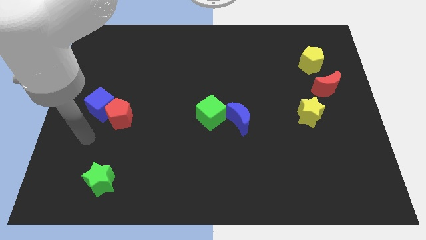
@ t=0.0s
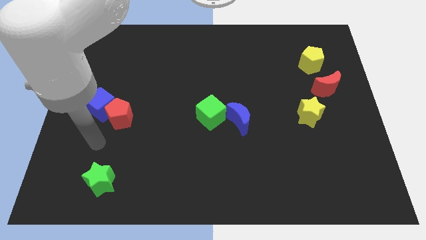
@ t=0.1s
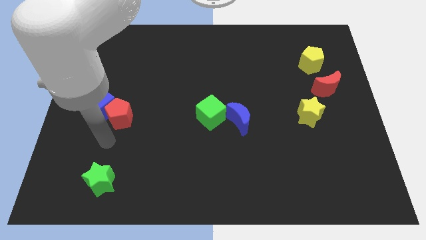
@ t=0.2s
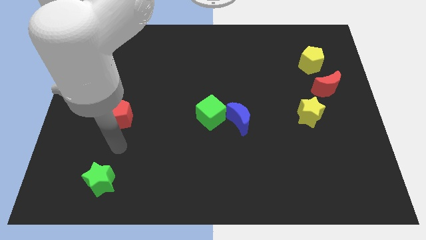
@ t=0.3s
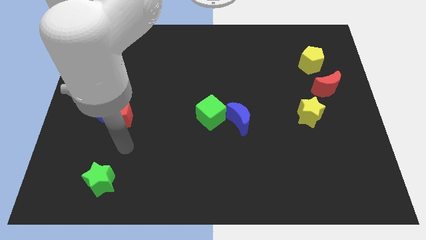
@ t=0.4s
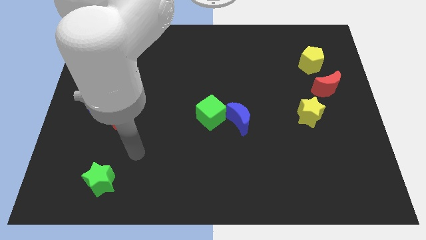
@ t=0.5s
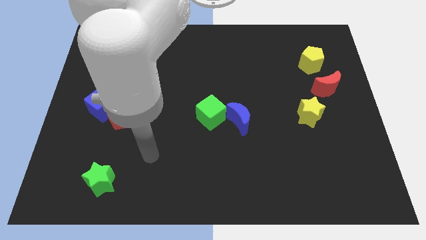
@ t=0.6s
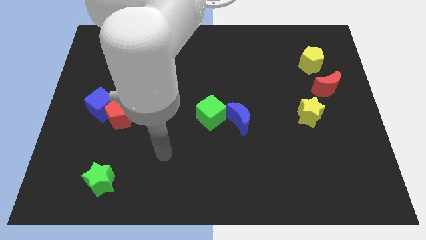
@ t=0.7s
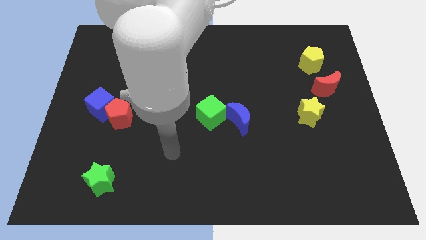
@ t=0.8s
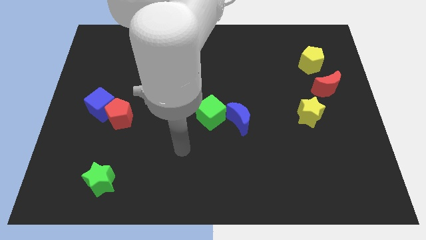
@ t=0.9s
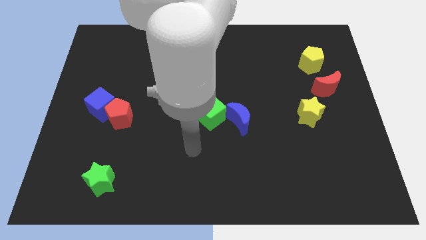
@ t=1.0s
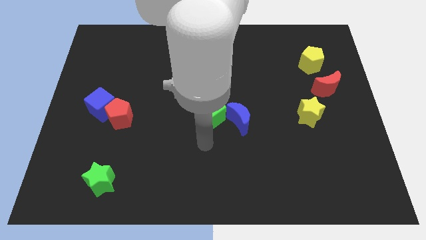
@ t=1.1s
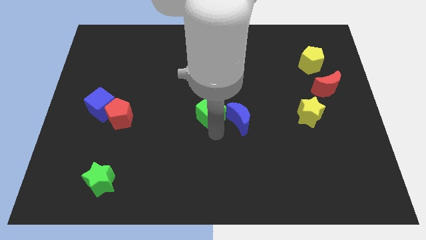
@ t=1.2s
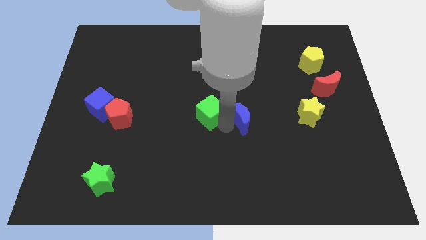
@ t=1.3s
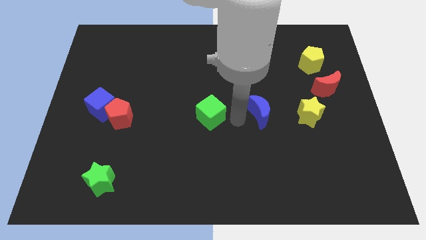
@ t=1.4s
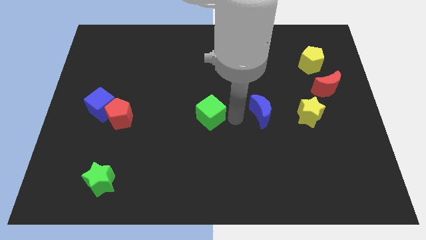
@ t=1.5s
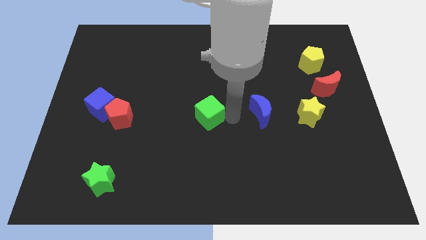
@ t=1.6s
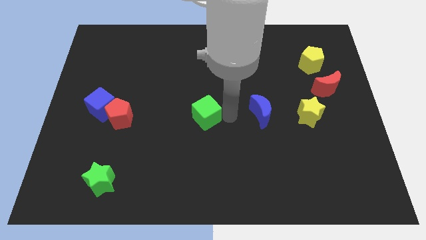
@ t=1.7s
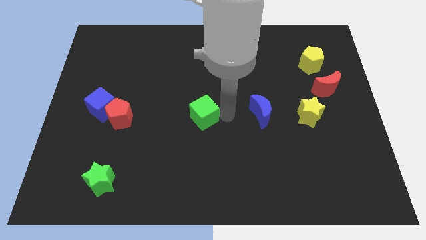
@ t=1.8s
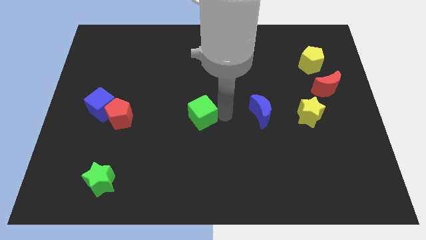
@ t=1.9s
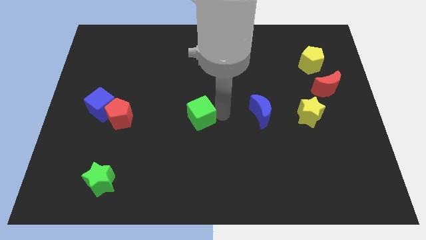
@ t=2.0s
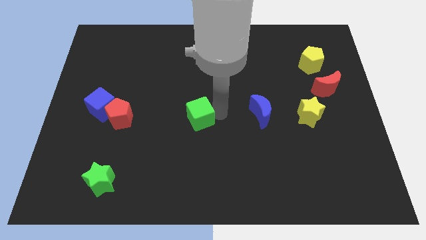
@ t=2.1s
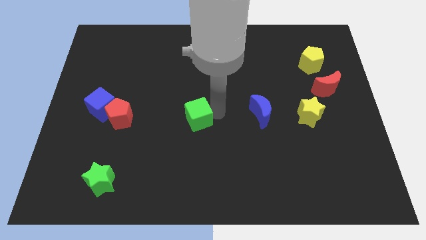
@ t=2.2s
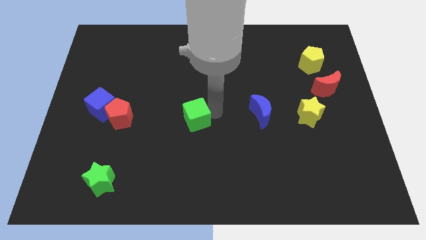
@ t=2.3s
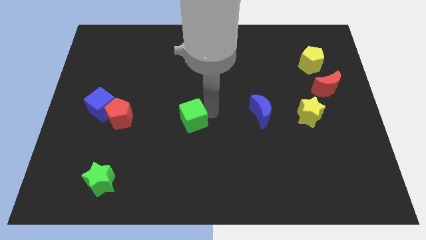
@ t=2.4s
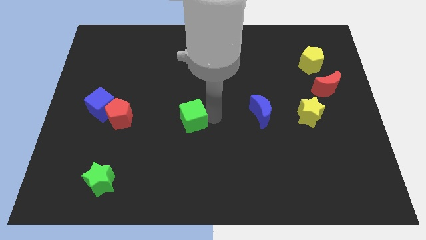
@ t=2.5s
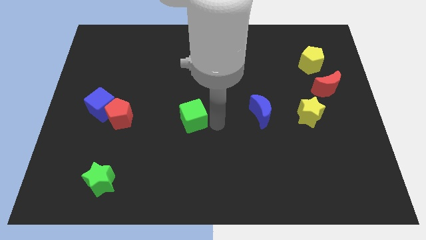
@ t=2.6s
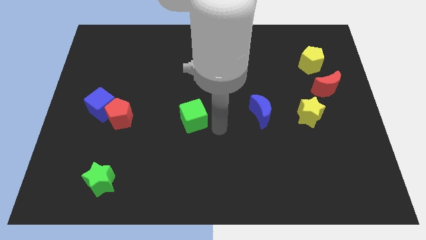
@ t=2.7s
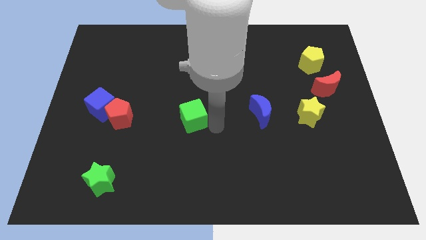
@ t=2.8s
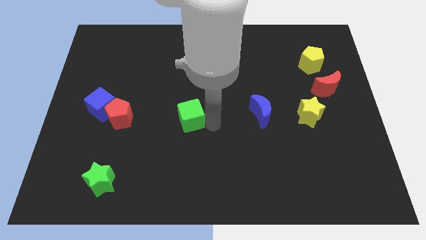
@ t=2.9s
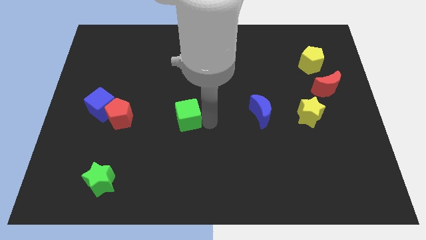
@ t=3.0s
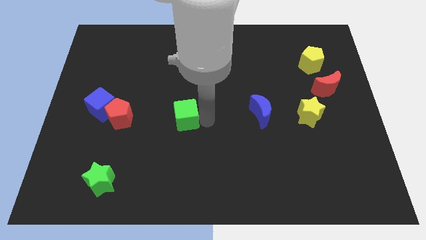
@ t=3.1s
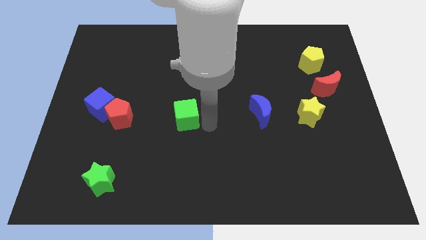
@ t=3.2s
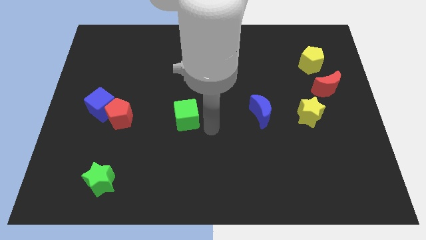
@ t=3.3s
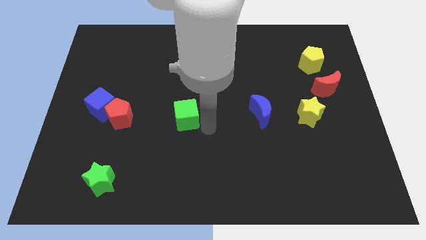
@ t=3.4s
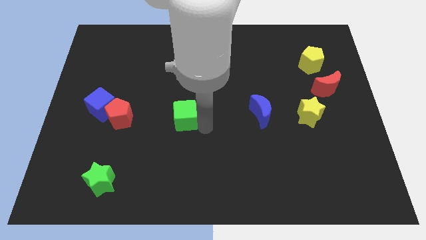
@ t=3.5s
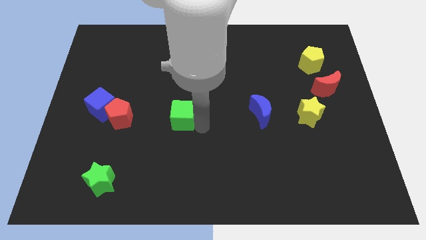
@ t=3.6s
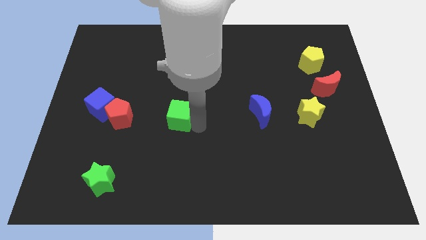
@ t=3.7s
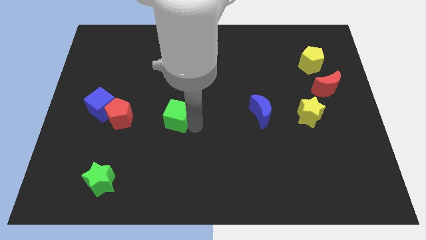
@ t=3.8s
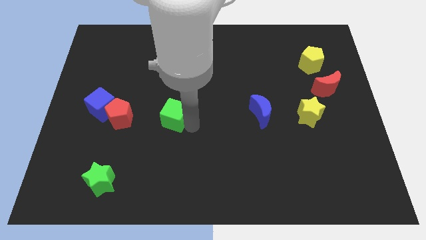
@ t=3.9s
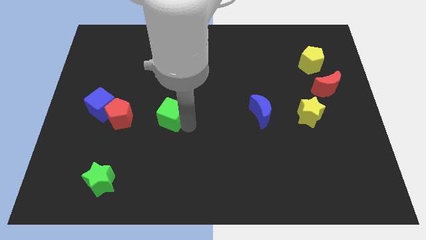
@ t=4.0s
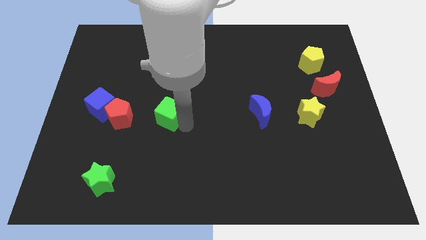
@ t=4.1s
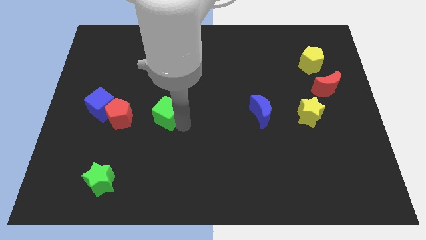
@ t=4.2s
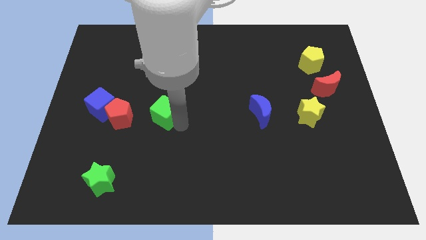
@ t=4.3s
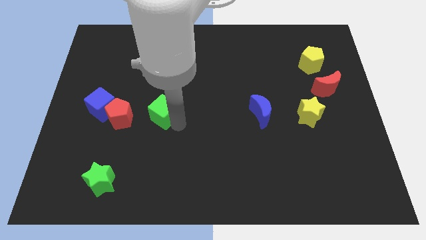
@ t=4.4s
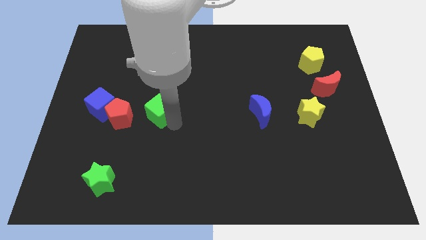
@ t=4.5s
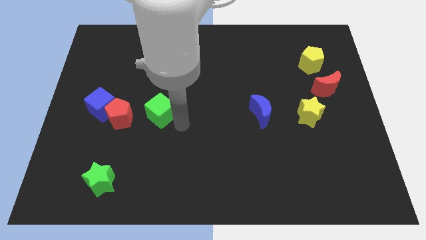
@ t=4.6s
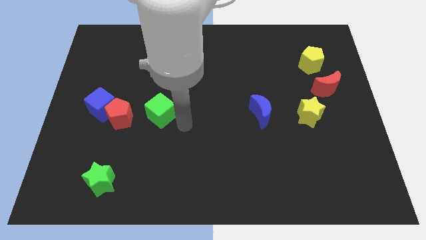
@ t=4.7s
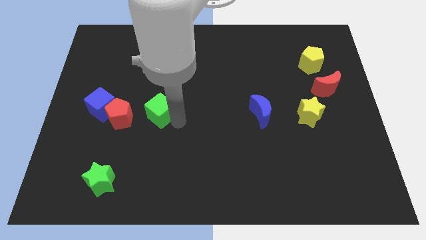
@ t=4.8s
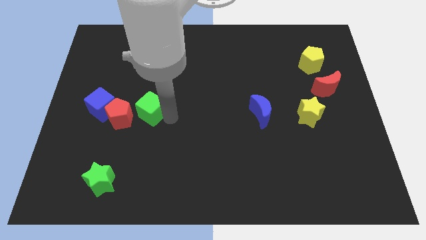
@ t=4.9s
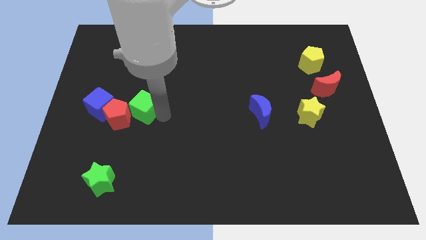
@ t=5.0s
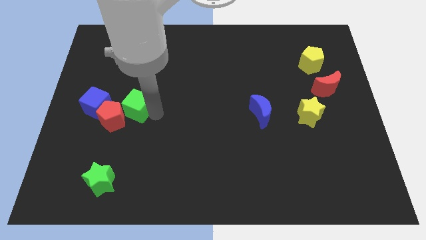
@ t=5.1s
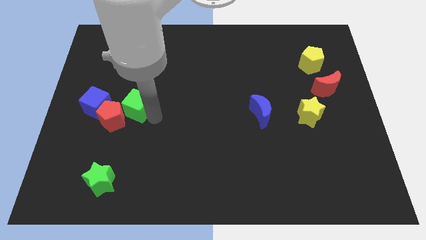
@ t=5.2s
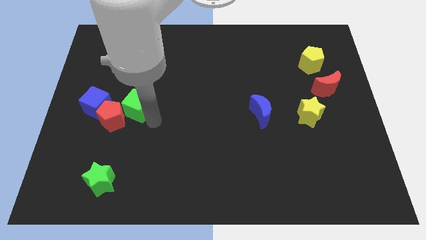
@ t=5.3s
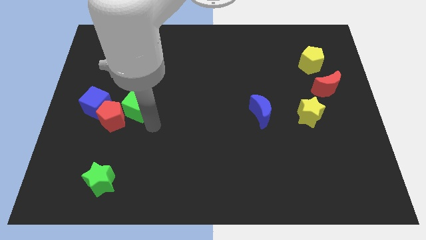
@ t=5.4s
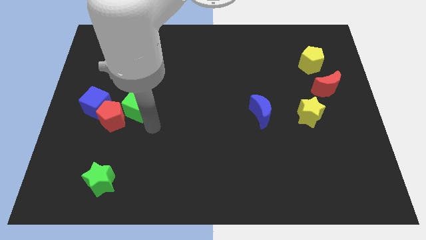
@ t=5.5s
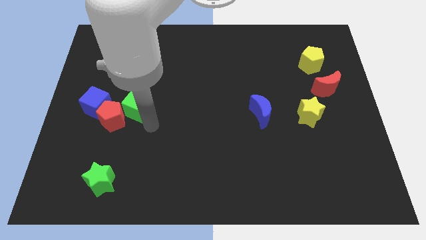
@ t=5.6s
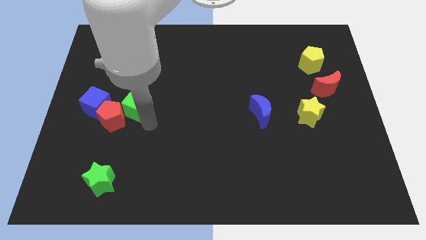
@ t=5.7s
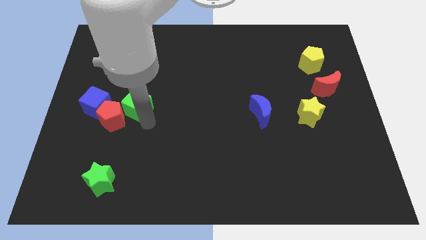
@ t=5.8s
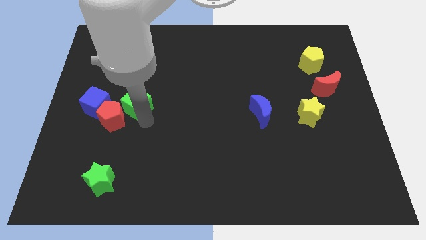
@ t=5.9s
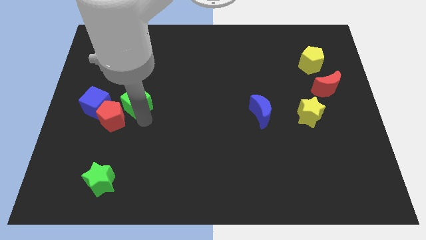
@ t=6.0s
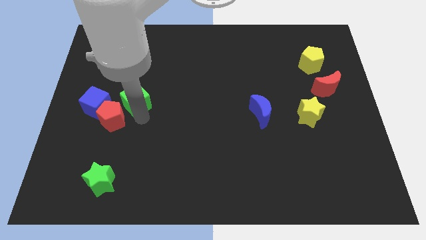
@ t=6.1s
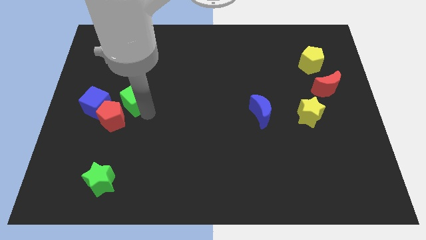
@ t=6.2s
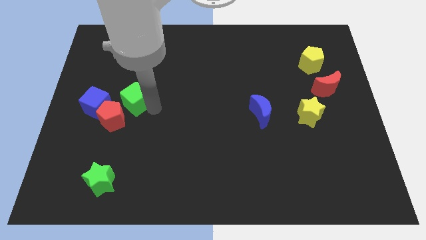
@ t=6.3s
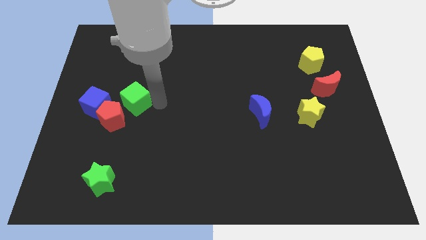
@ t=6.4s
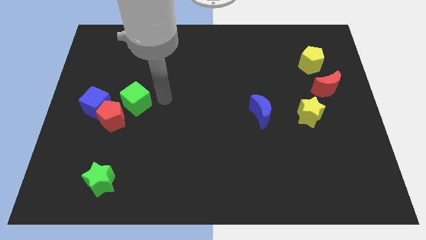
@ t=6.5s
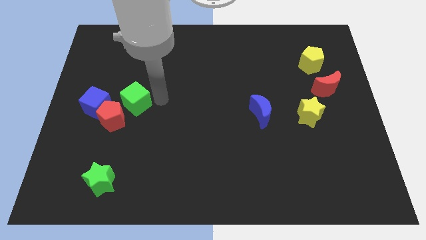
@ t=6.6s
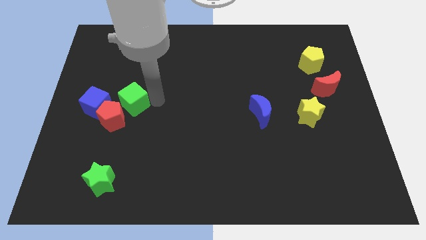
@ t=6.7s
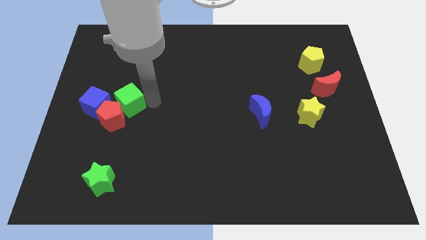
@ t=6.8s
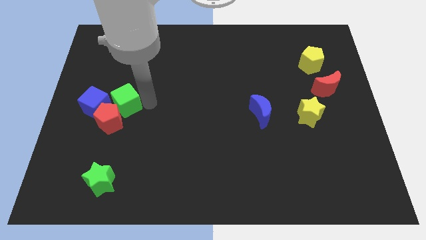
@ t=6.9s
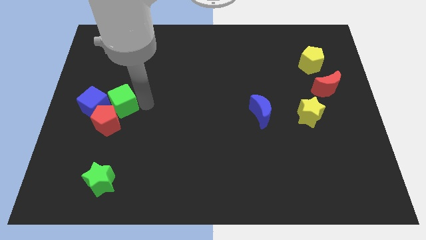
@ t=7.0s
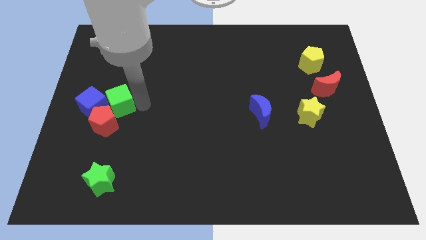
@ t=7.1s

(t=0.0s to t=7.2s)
slide the green cube to the blue cube
